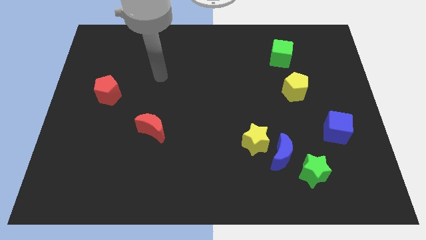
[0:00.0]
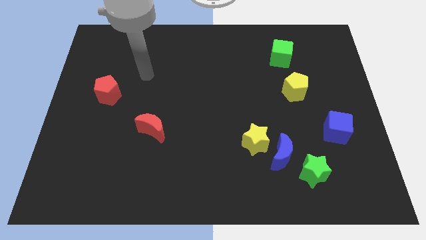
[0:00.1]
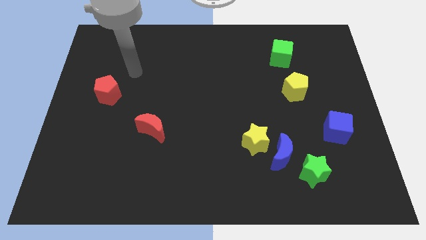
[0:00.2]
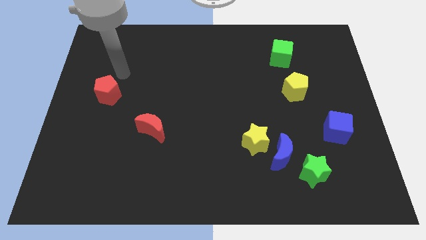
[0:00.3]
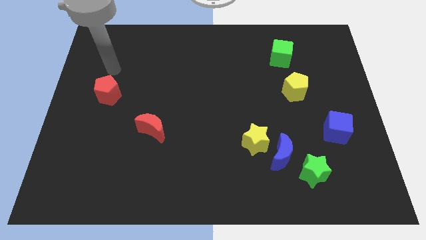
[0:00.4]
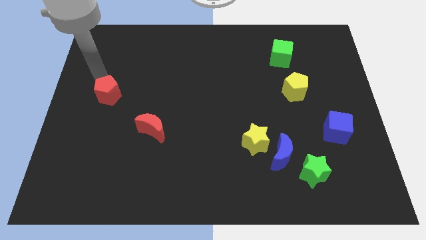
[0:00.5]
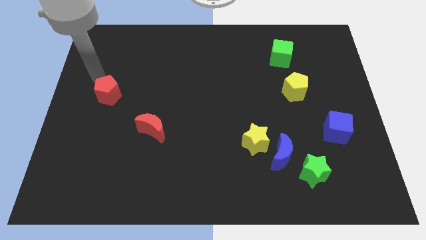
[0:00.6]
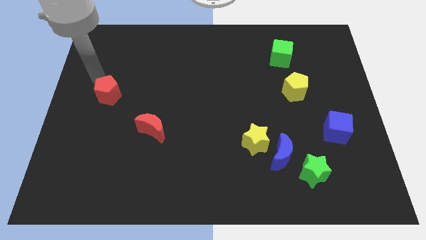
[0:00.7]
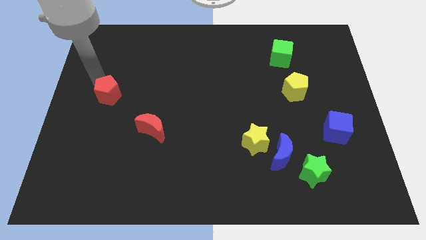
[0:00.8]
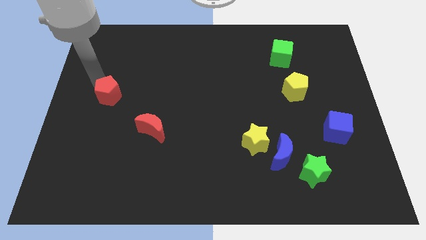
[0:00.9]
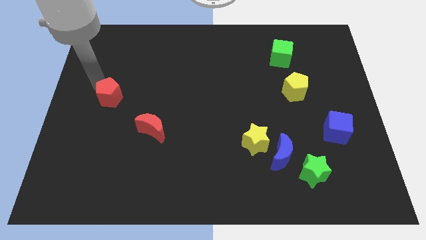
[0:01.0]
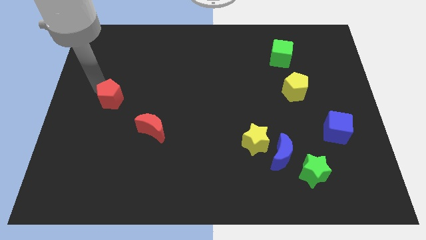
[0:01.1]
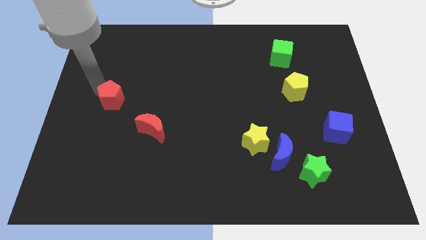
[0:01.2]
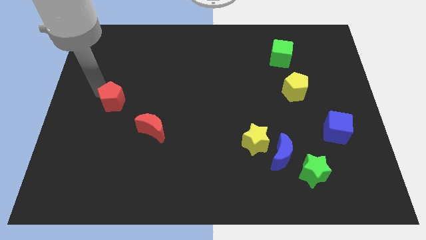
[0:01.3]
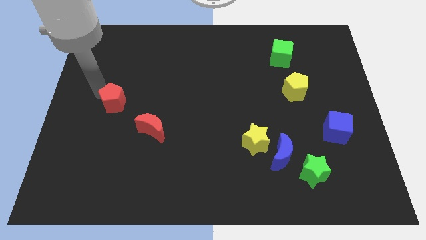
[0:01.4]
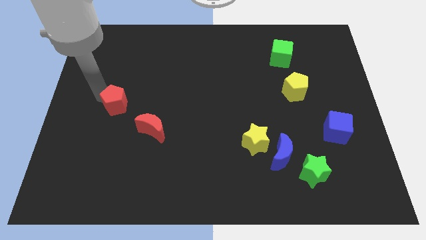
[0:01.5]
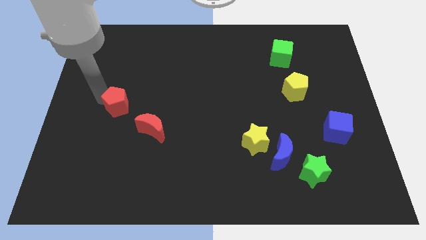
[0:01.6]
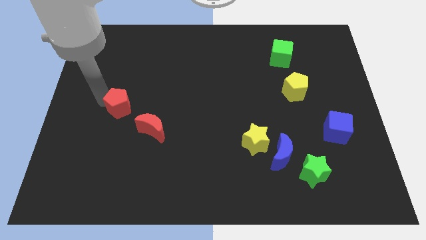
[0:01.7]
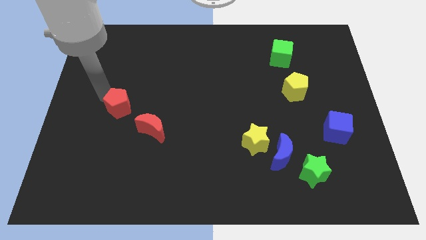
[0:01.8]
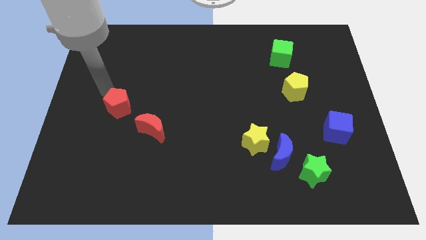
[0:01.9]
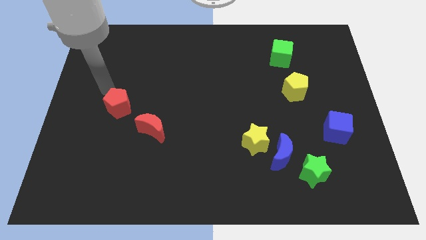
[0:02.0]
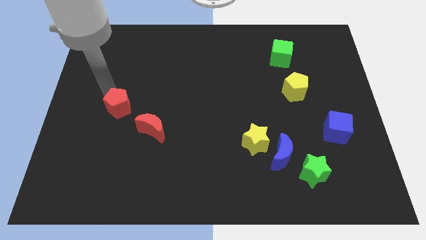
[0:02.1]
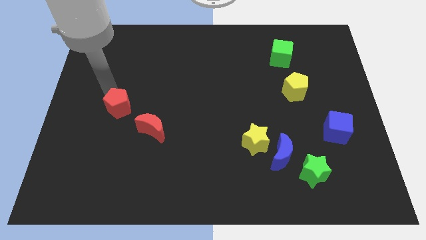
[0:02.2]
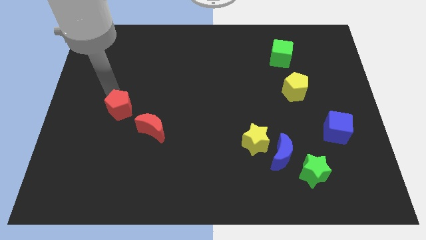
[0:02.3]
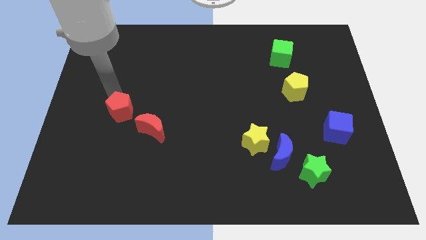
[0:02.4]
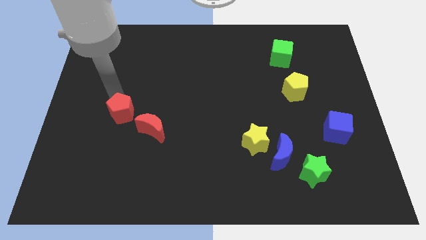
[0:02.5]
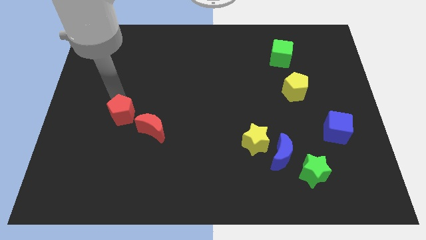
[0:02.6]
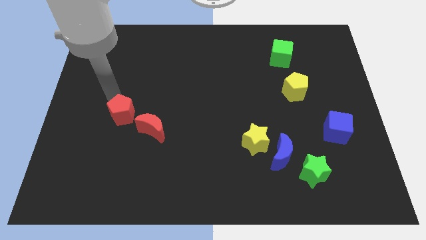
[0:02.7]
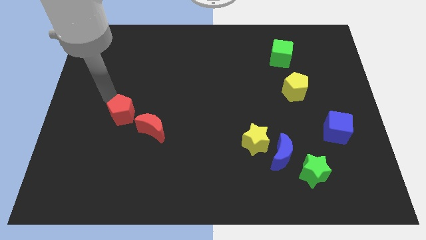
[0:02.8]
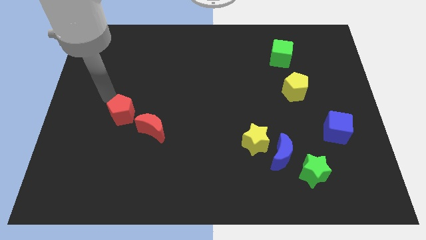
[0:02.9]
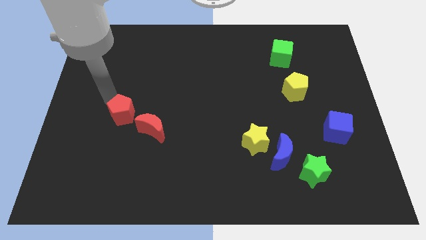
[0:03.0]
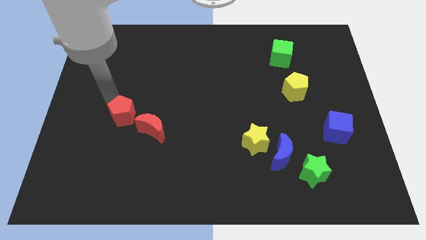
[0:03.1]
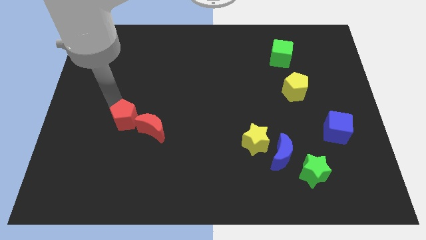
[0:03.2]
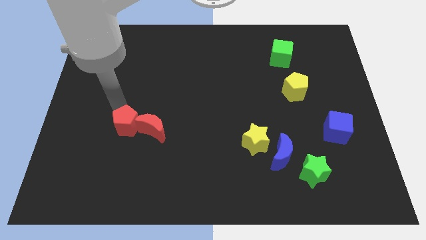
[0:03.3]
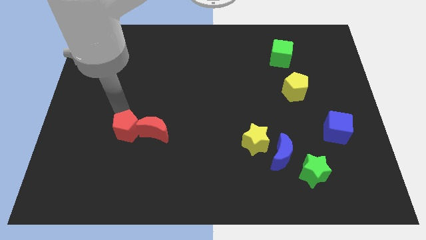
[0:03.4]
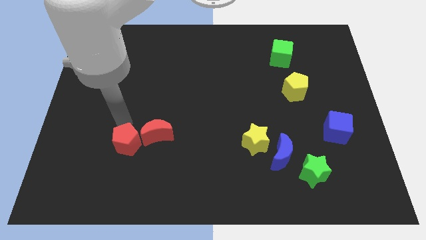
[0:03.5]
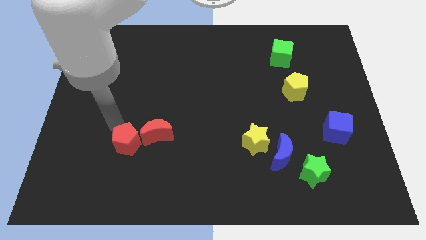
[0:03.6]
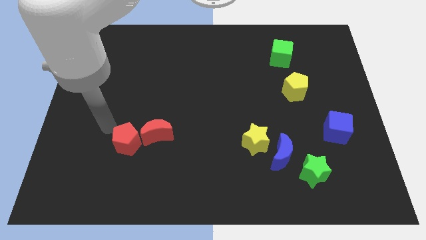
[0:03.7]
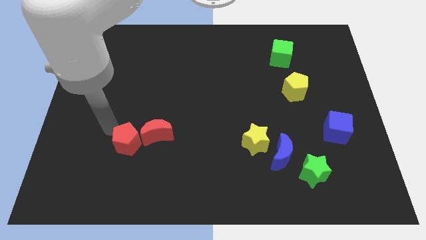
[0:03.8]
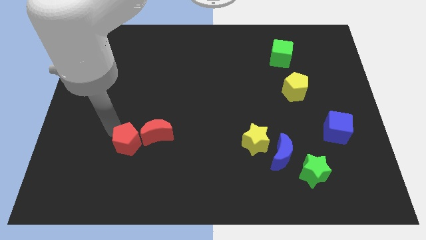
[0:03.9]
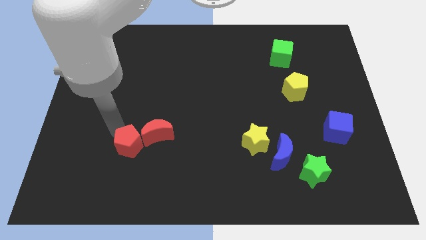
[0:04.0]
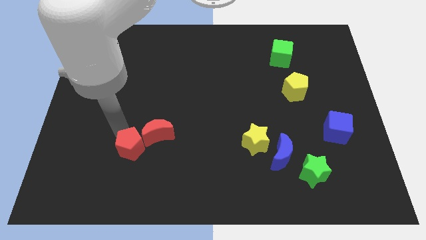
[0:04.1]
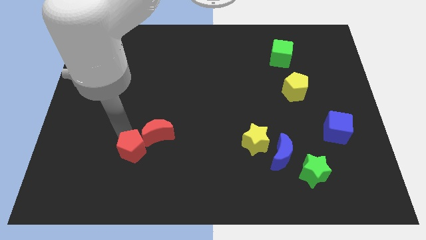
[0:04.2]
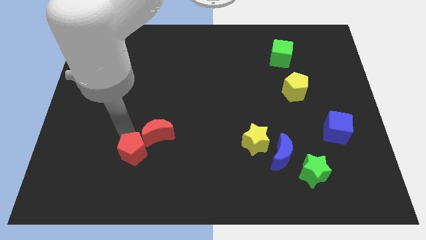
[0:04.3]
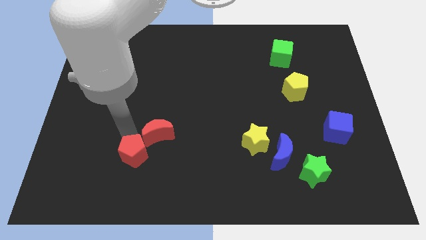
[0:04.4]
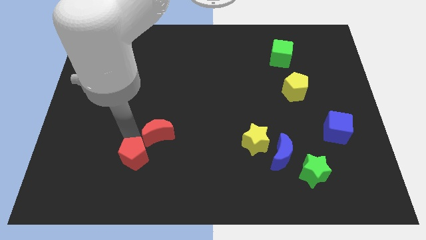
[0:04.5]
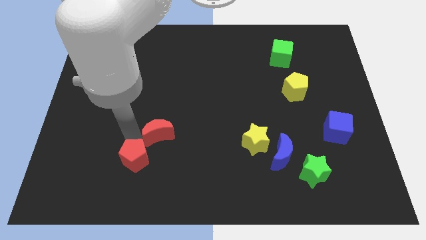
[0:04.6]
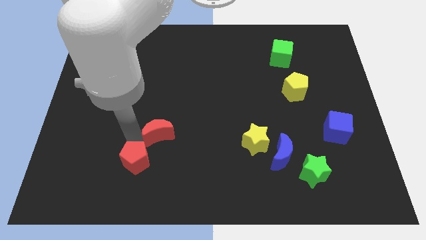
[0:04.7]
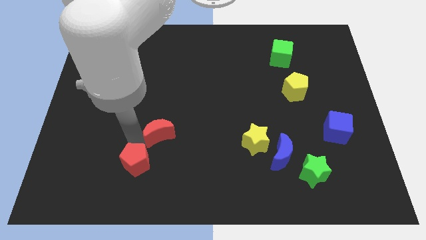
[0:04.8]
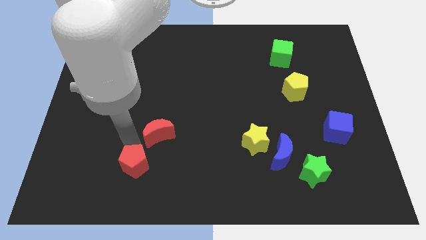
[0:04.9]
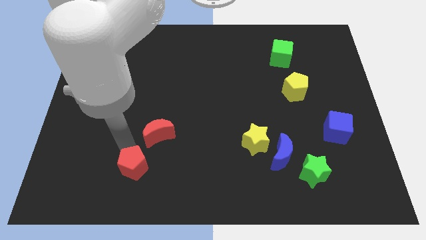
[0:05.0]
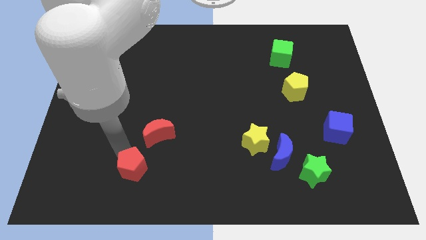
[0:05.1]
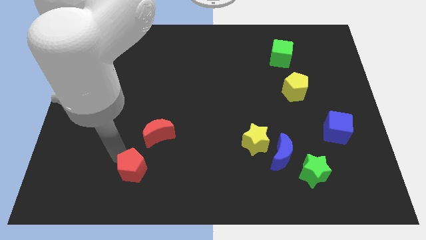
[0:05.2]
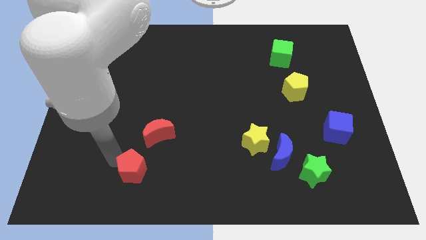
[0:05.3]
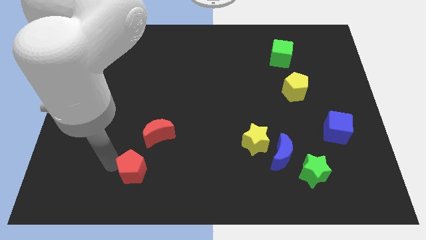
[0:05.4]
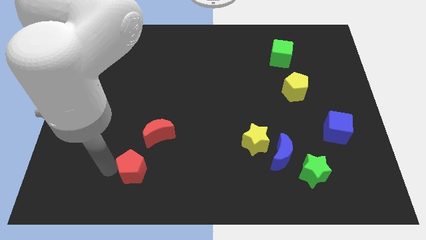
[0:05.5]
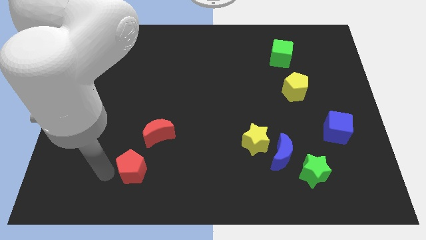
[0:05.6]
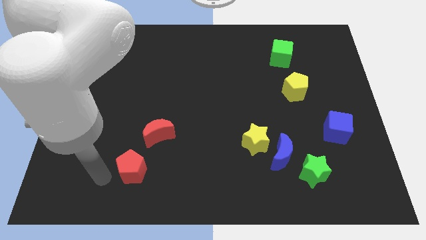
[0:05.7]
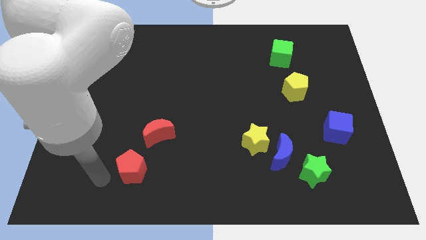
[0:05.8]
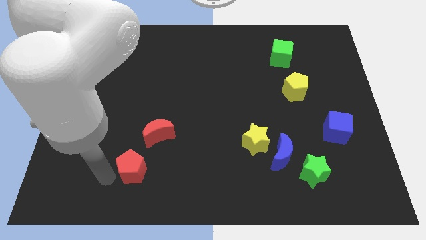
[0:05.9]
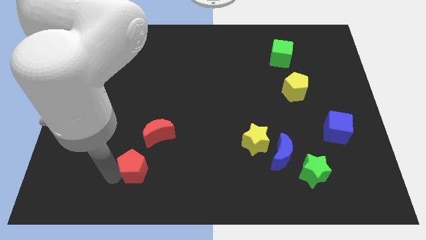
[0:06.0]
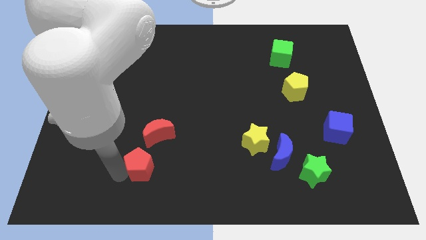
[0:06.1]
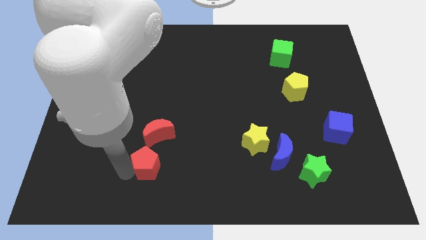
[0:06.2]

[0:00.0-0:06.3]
push the red pentagon downwards and then right

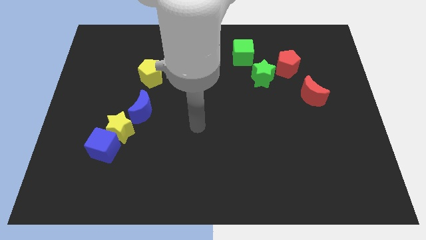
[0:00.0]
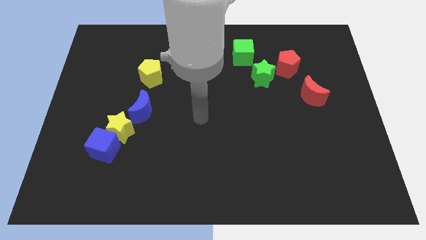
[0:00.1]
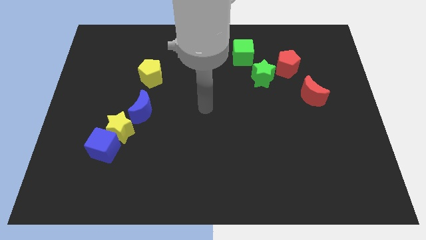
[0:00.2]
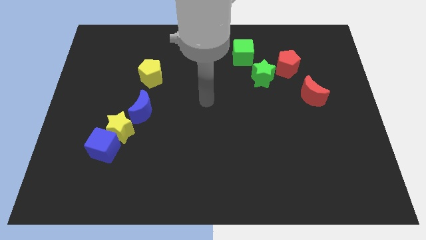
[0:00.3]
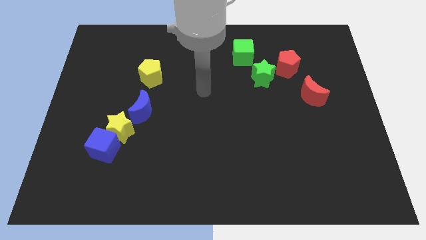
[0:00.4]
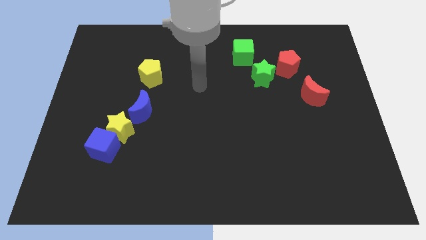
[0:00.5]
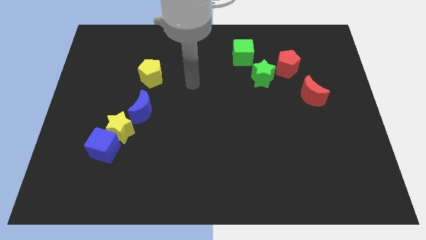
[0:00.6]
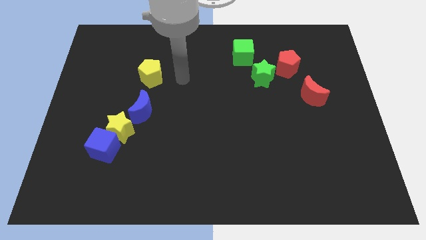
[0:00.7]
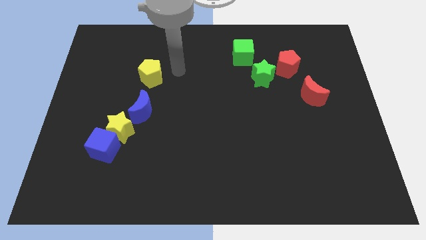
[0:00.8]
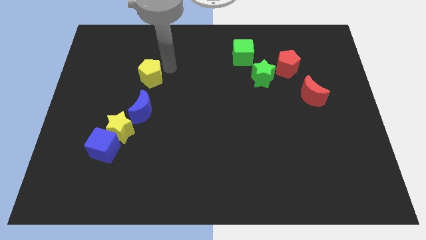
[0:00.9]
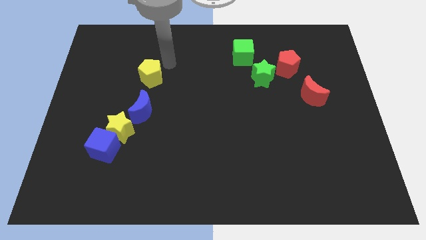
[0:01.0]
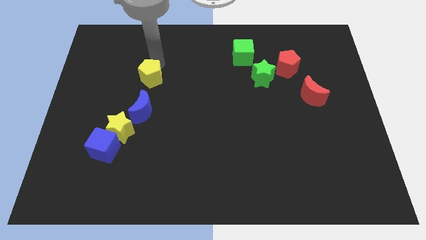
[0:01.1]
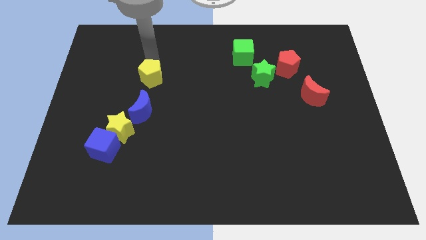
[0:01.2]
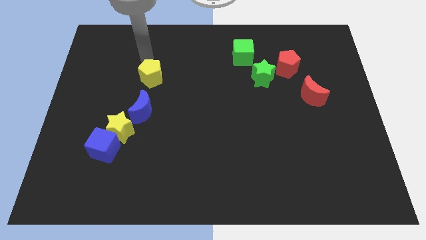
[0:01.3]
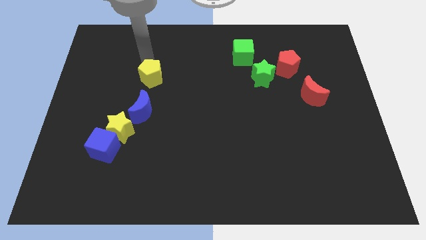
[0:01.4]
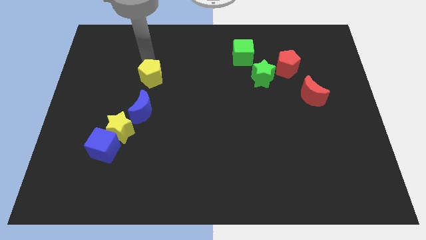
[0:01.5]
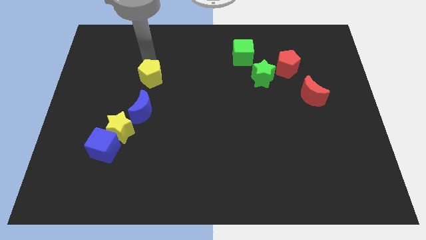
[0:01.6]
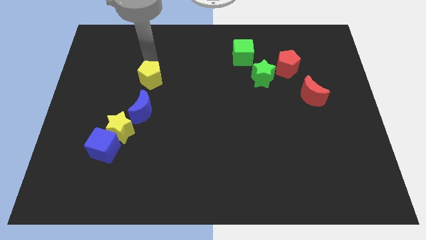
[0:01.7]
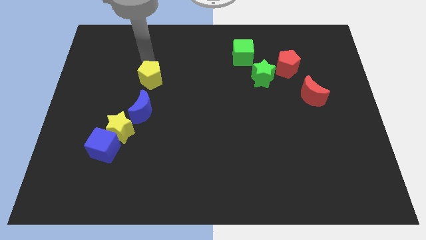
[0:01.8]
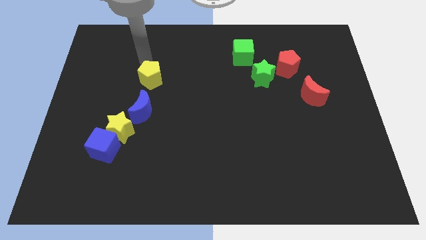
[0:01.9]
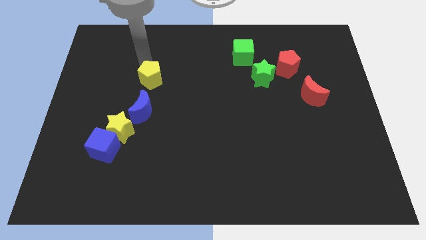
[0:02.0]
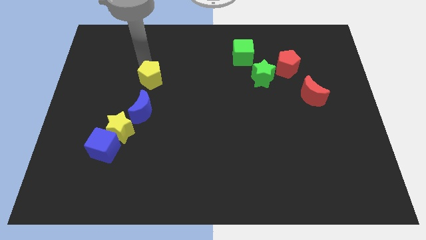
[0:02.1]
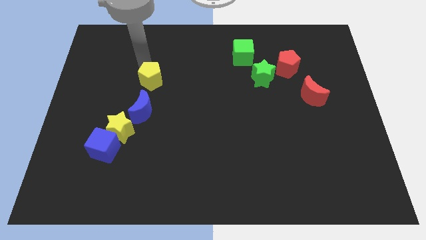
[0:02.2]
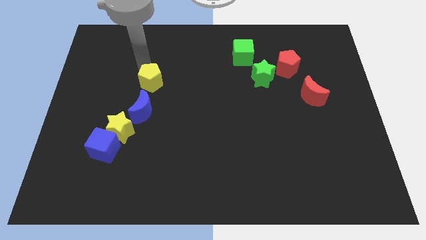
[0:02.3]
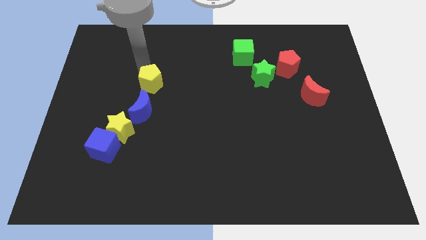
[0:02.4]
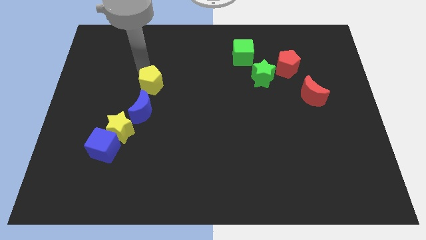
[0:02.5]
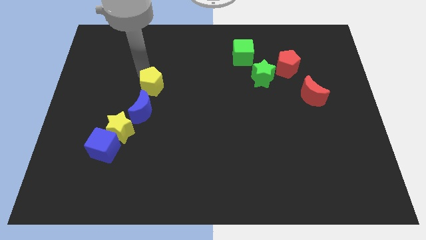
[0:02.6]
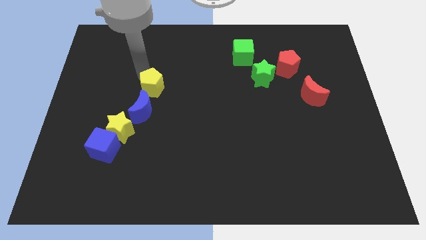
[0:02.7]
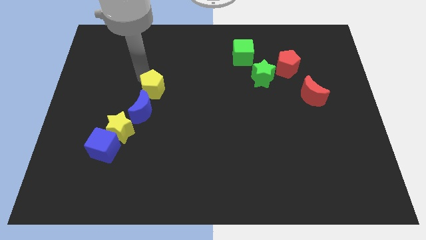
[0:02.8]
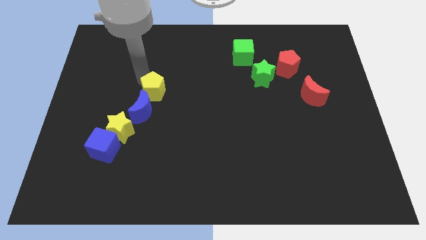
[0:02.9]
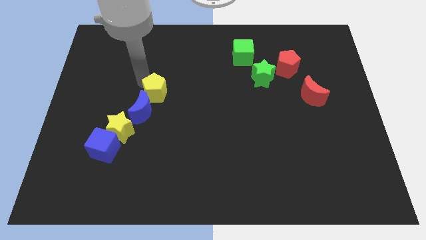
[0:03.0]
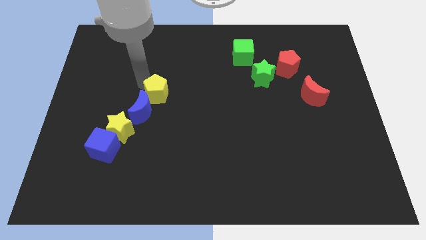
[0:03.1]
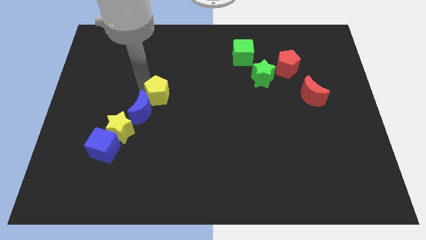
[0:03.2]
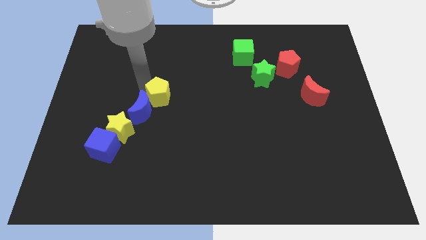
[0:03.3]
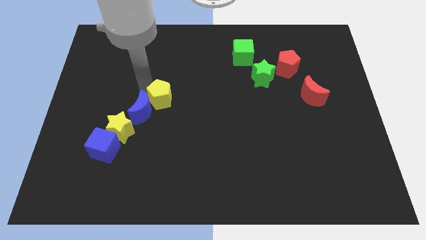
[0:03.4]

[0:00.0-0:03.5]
slightly push the yellow pentagon downwards and to the right
